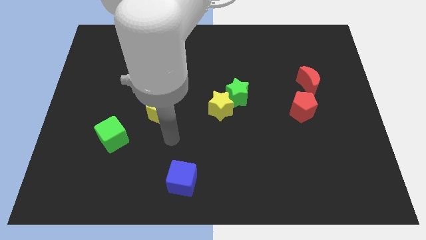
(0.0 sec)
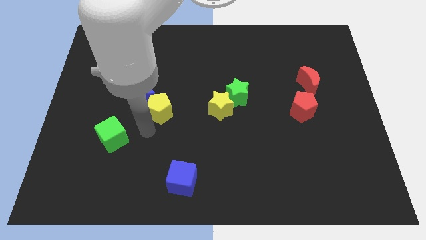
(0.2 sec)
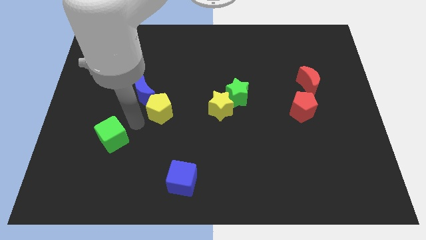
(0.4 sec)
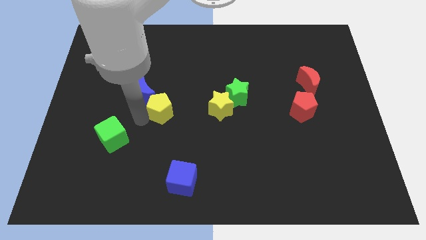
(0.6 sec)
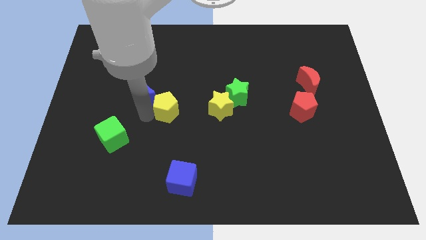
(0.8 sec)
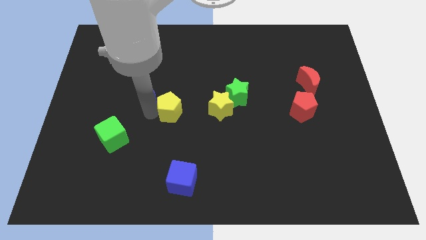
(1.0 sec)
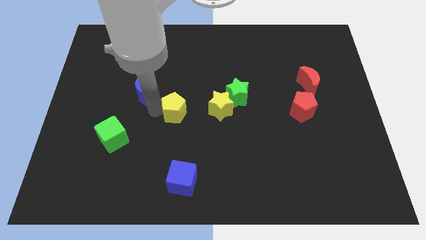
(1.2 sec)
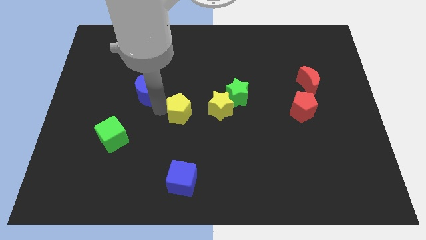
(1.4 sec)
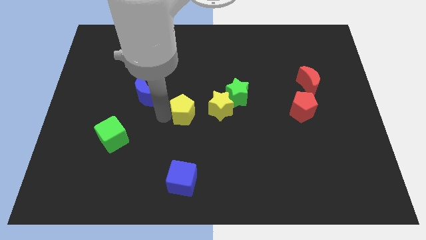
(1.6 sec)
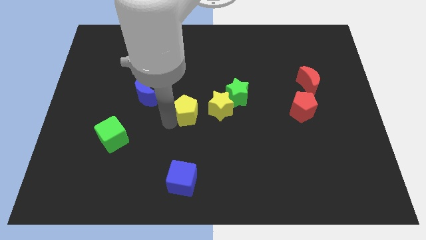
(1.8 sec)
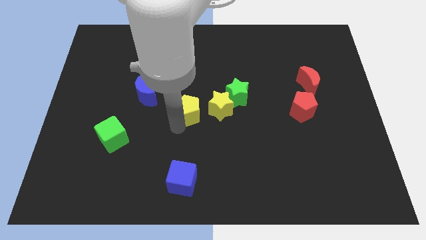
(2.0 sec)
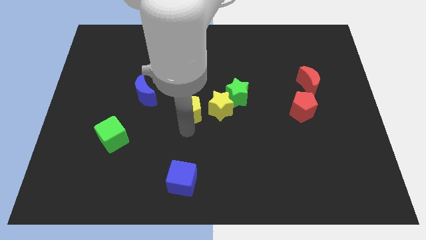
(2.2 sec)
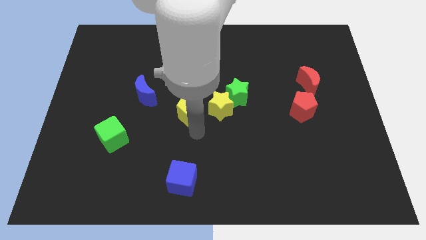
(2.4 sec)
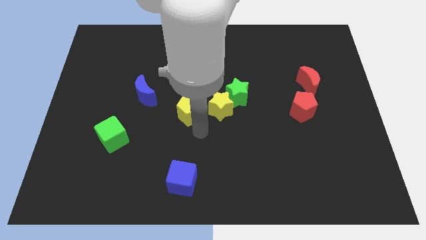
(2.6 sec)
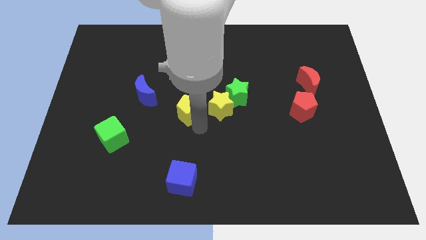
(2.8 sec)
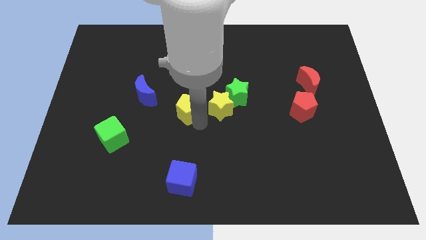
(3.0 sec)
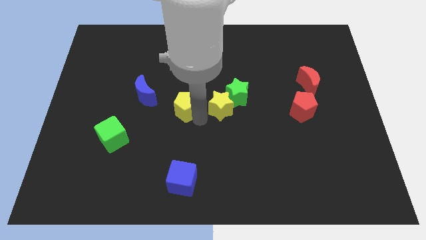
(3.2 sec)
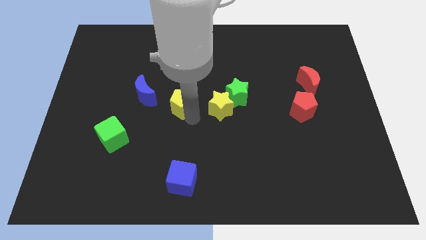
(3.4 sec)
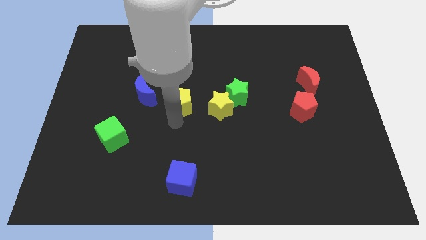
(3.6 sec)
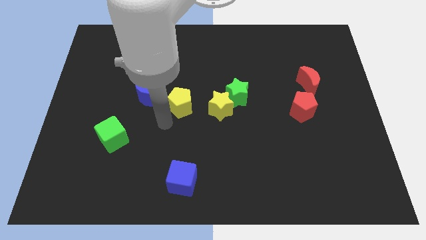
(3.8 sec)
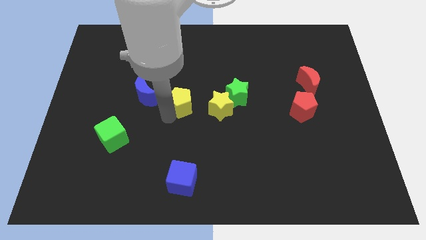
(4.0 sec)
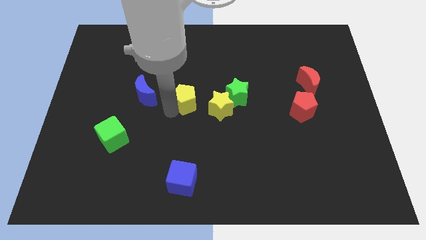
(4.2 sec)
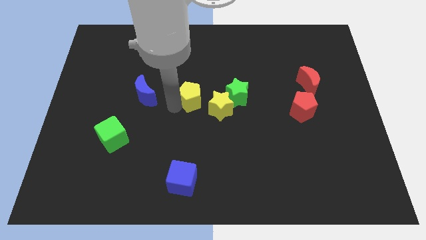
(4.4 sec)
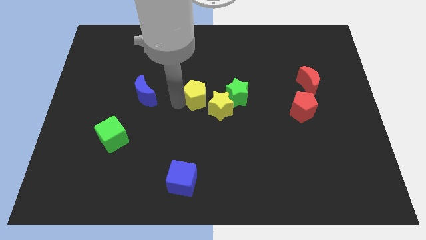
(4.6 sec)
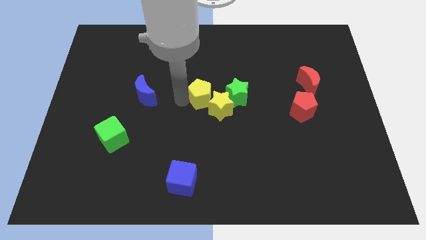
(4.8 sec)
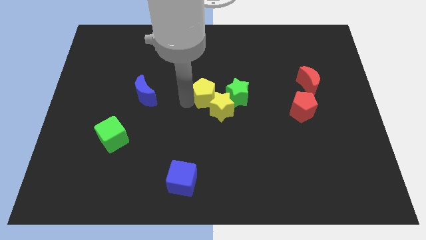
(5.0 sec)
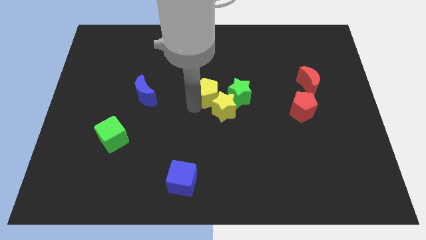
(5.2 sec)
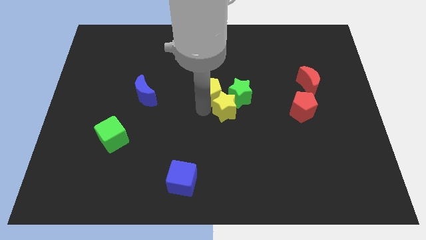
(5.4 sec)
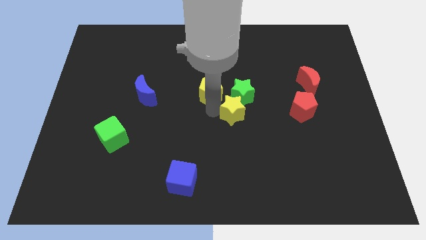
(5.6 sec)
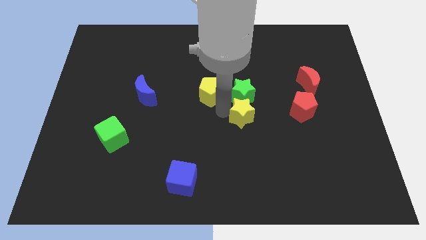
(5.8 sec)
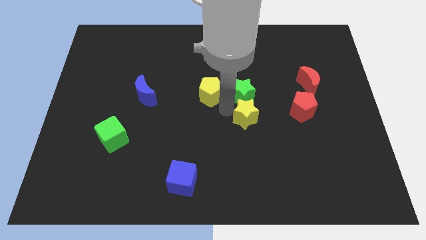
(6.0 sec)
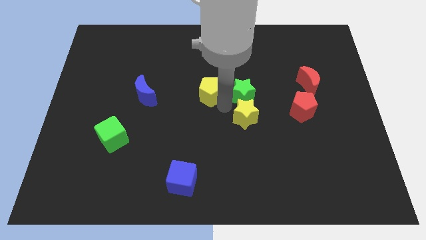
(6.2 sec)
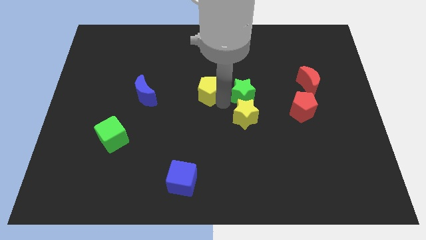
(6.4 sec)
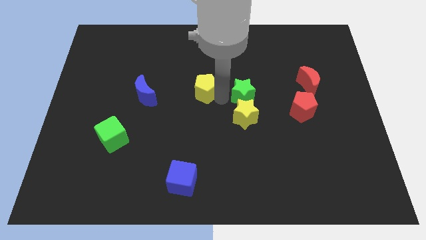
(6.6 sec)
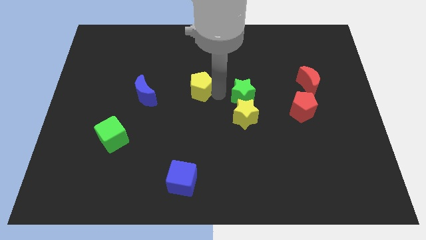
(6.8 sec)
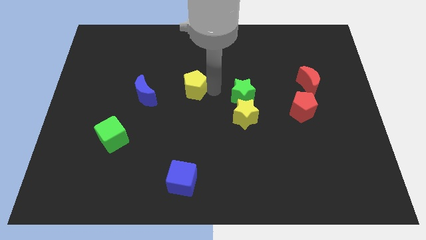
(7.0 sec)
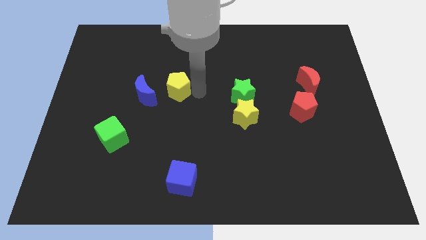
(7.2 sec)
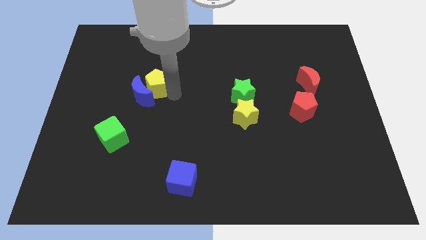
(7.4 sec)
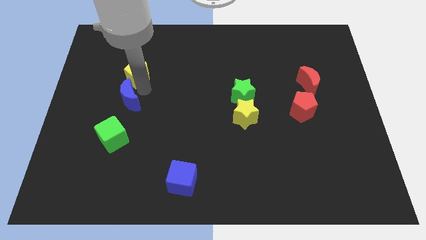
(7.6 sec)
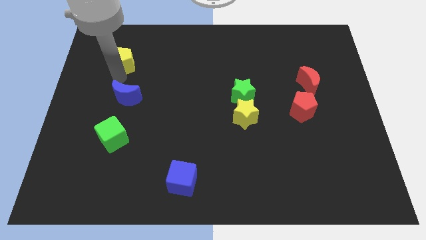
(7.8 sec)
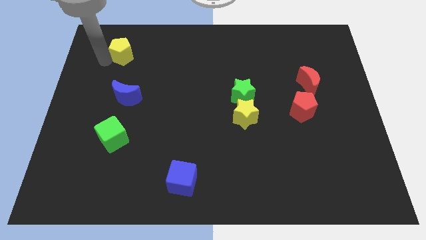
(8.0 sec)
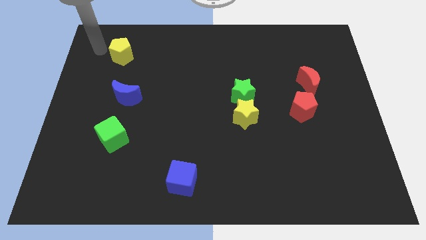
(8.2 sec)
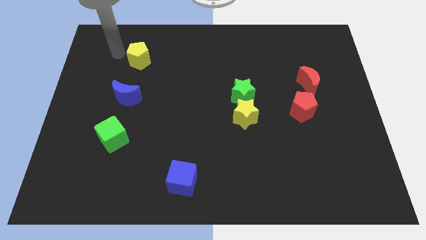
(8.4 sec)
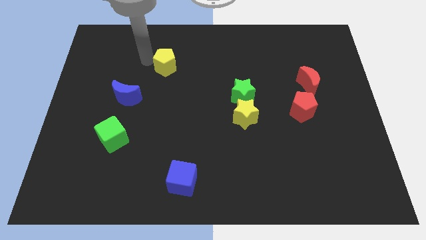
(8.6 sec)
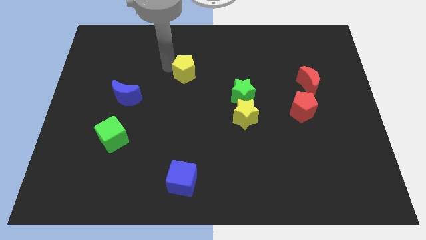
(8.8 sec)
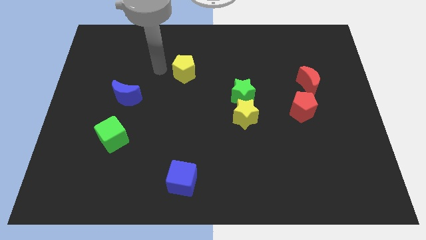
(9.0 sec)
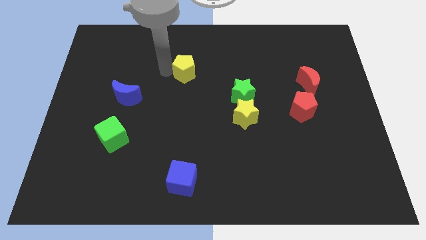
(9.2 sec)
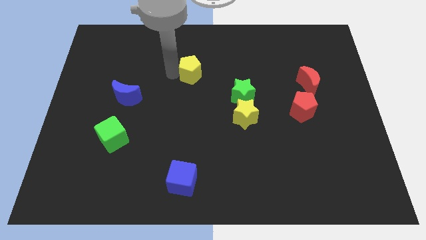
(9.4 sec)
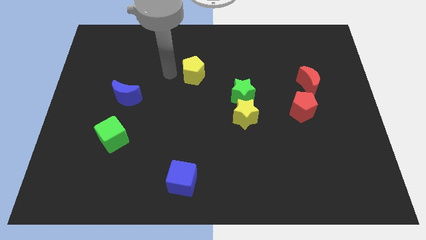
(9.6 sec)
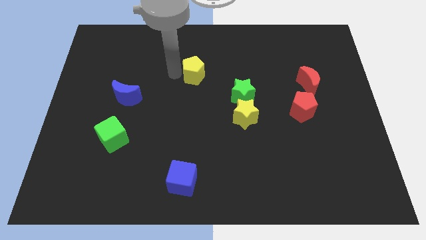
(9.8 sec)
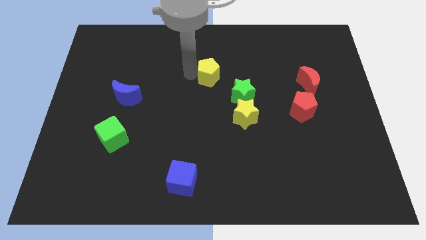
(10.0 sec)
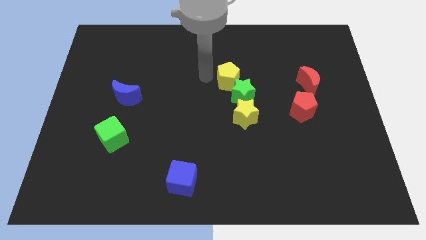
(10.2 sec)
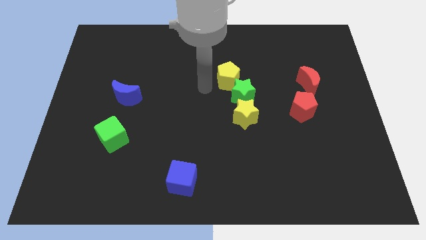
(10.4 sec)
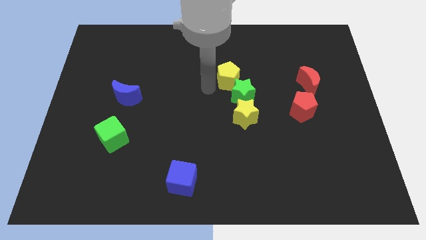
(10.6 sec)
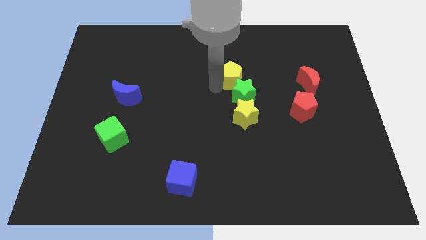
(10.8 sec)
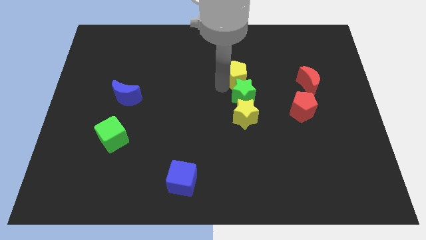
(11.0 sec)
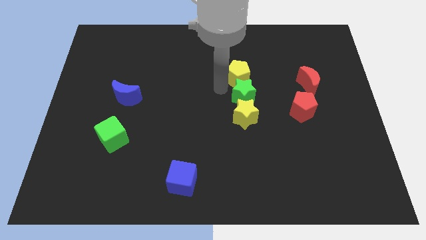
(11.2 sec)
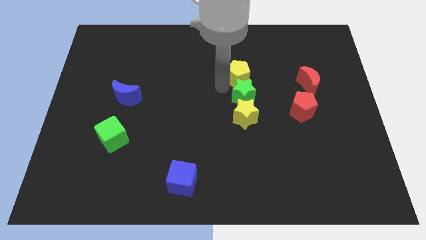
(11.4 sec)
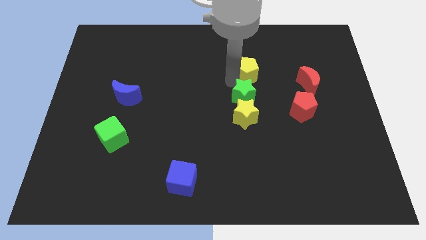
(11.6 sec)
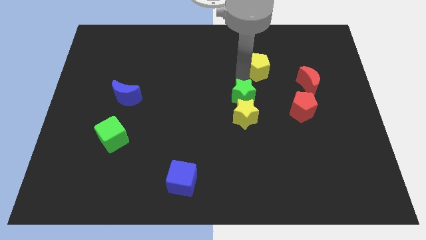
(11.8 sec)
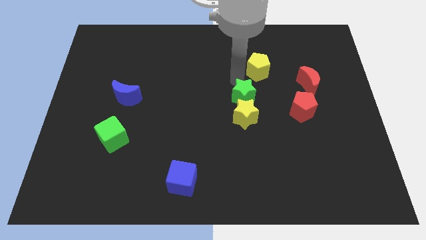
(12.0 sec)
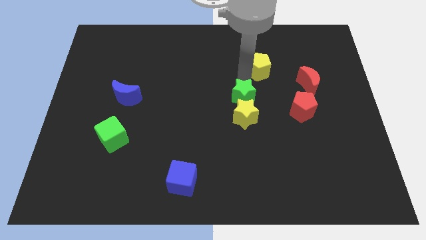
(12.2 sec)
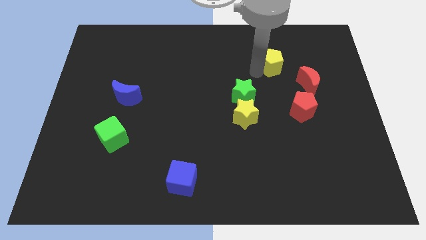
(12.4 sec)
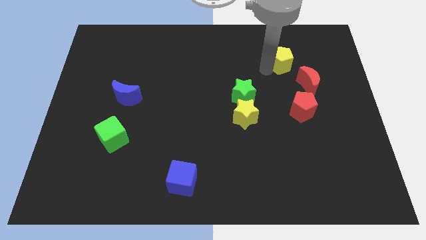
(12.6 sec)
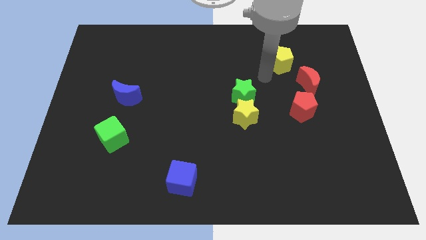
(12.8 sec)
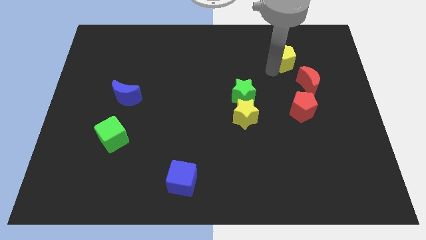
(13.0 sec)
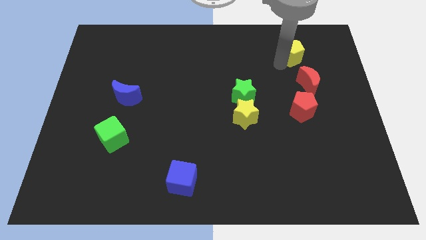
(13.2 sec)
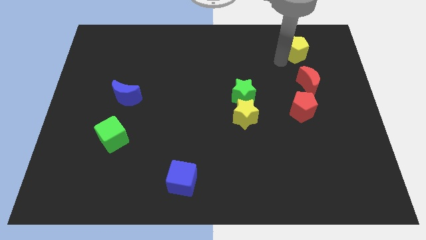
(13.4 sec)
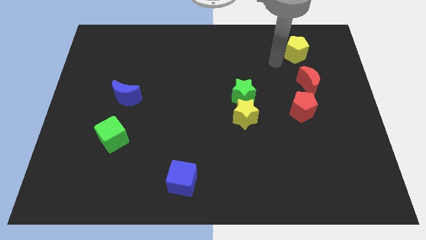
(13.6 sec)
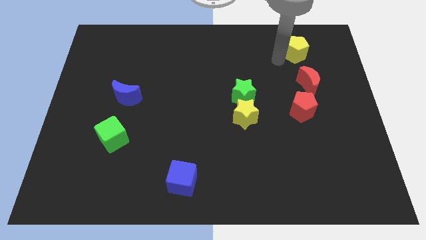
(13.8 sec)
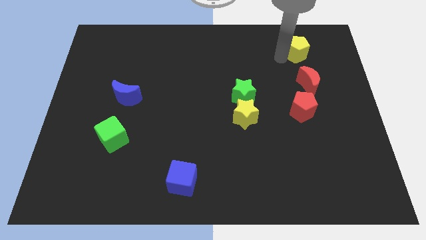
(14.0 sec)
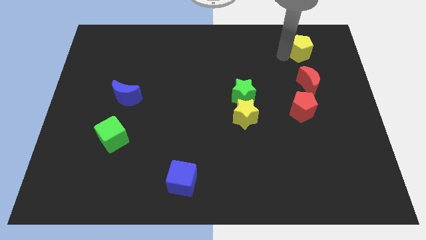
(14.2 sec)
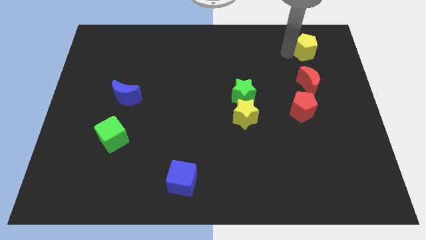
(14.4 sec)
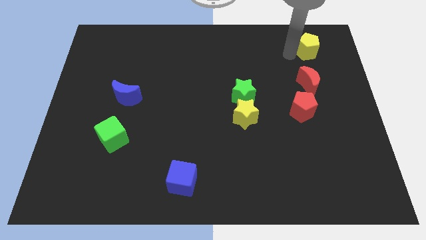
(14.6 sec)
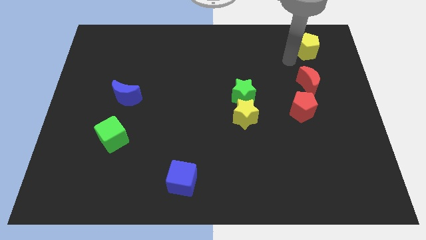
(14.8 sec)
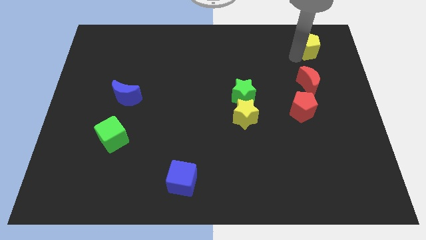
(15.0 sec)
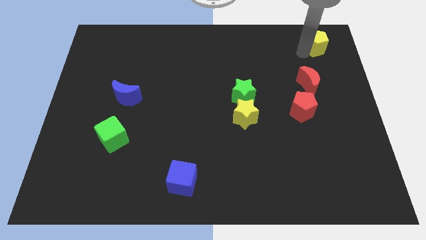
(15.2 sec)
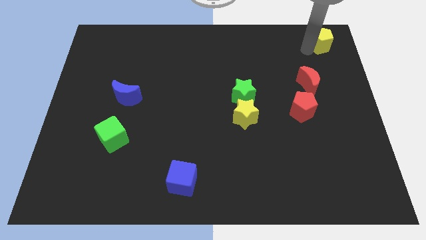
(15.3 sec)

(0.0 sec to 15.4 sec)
move the yellow pentagon to the upper right corner
